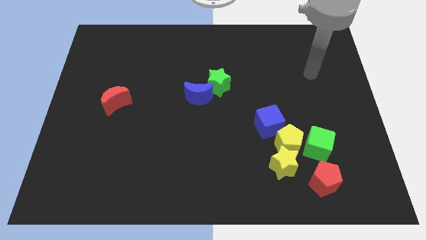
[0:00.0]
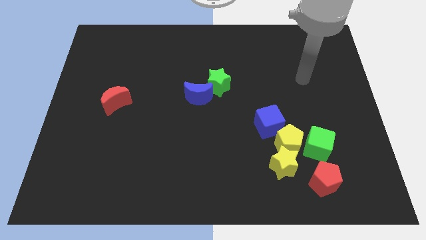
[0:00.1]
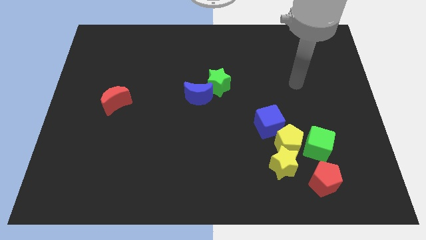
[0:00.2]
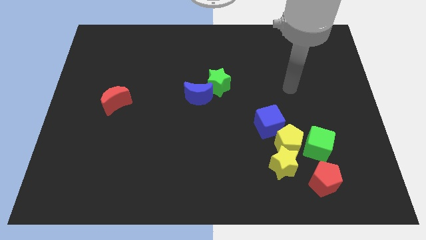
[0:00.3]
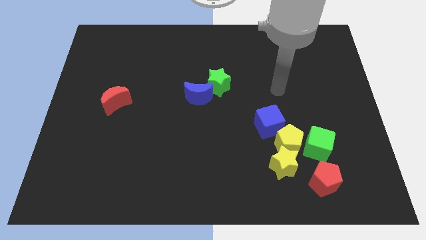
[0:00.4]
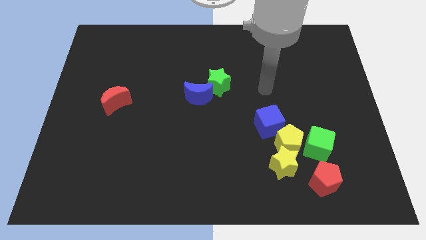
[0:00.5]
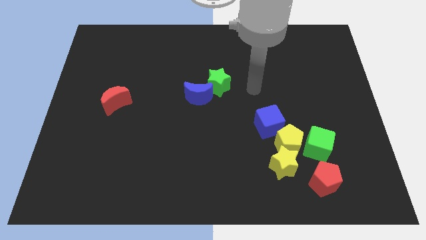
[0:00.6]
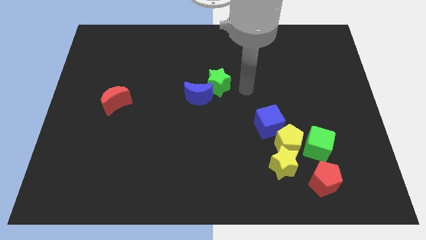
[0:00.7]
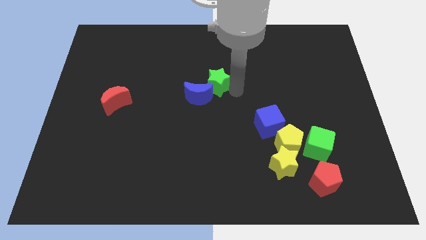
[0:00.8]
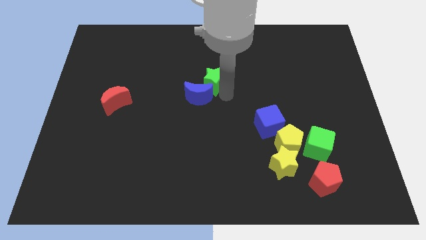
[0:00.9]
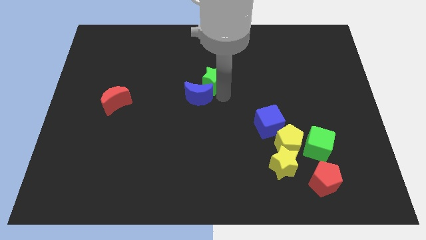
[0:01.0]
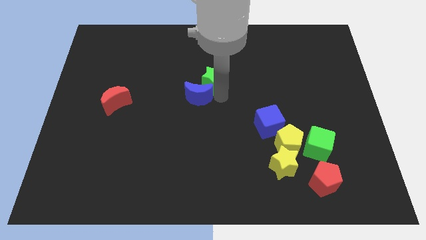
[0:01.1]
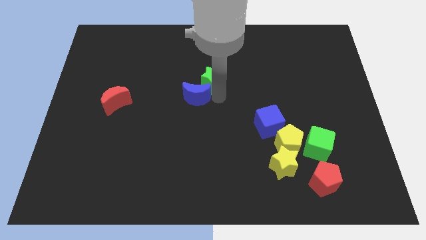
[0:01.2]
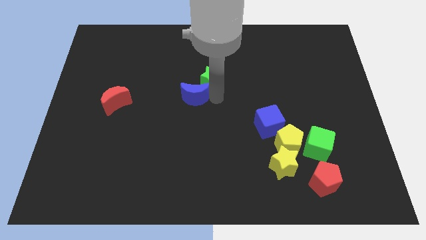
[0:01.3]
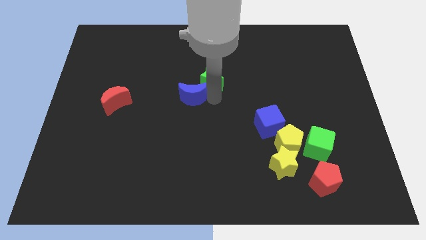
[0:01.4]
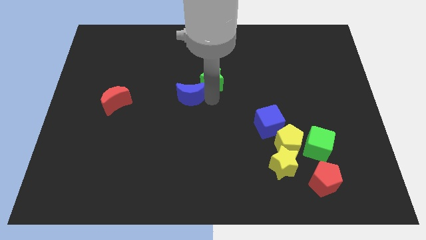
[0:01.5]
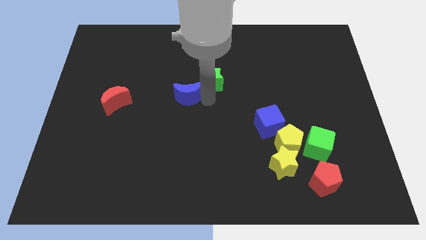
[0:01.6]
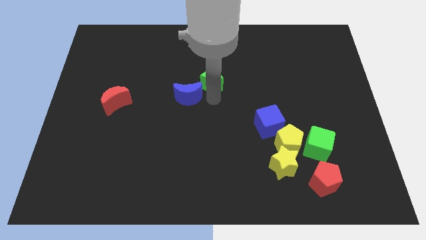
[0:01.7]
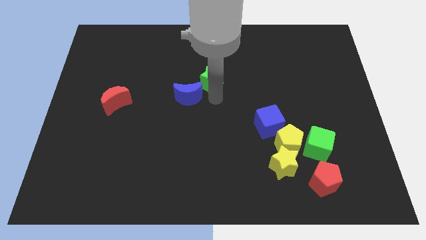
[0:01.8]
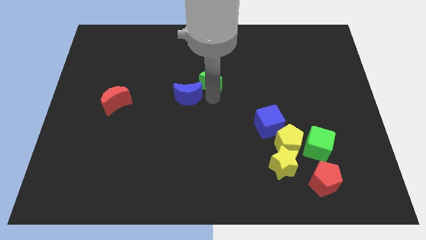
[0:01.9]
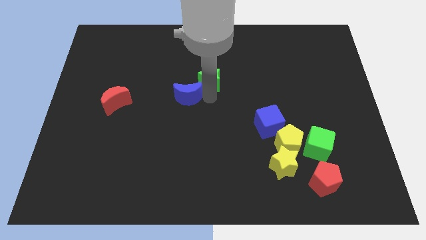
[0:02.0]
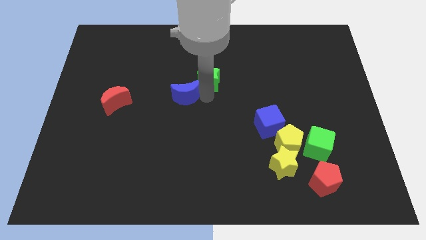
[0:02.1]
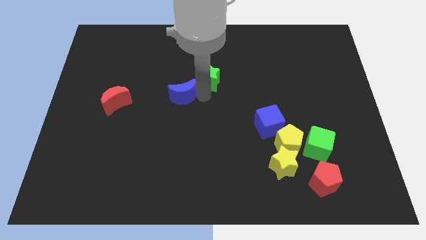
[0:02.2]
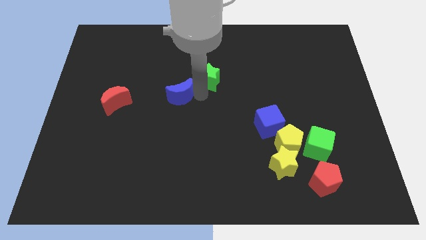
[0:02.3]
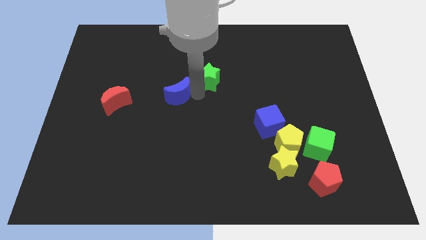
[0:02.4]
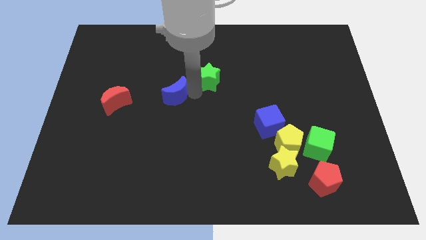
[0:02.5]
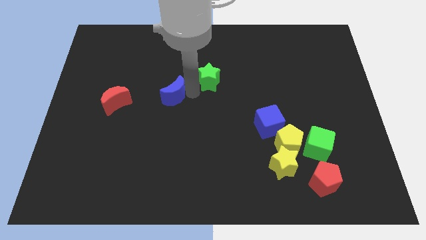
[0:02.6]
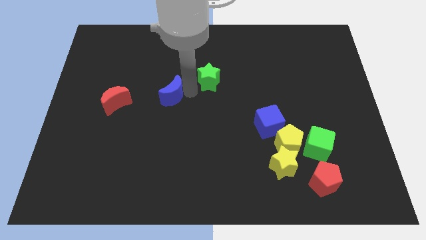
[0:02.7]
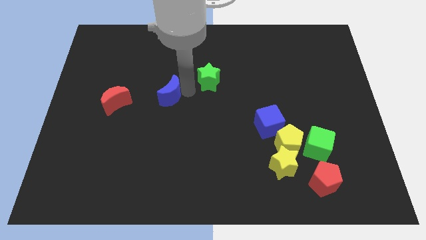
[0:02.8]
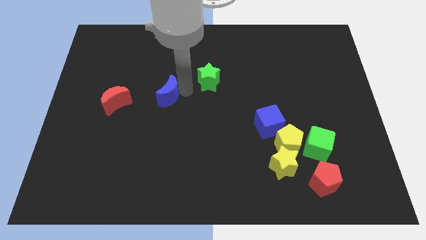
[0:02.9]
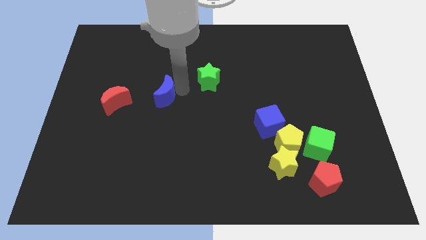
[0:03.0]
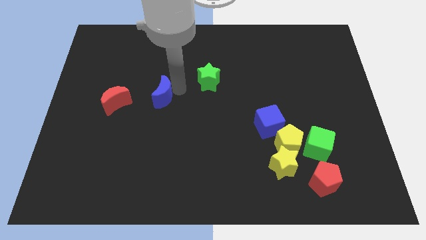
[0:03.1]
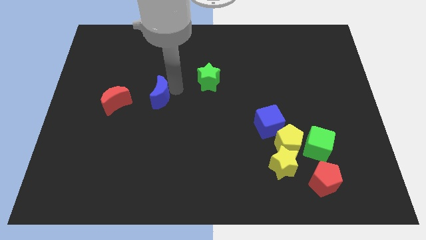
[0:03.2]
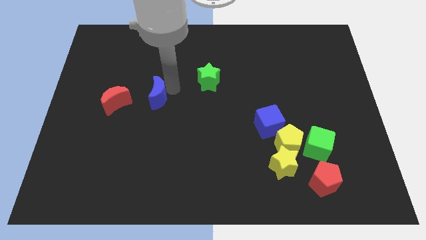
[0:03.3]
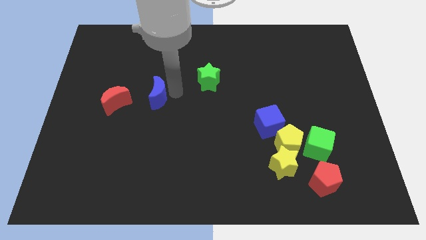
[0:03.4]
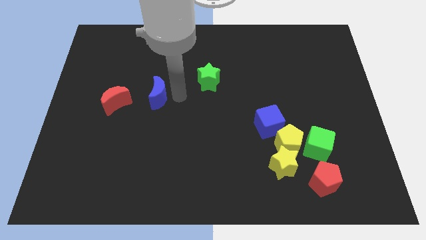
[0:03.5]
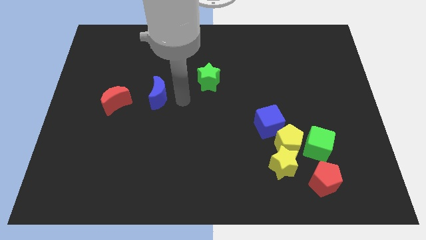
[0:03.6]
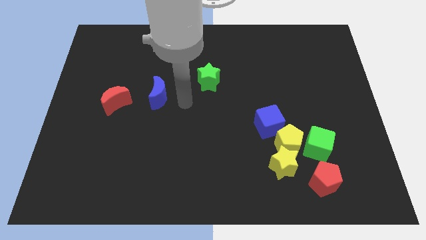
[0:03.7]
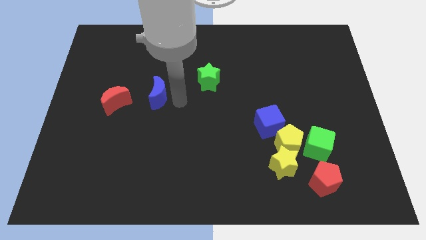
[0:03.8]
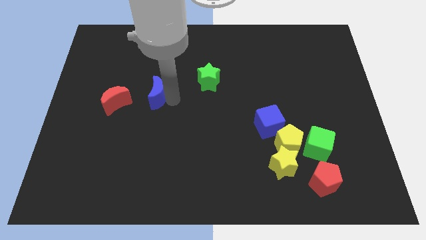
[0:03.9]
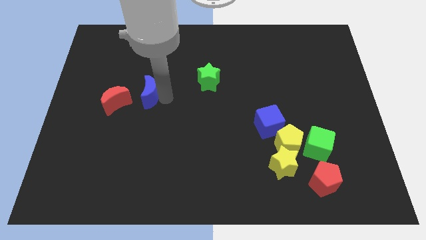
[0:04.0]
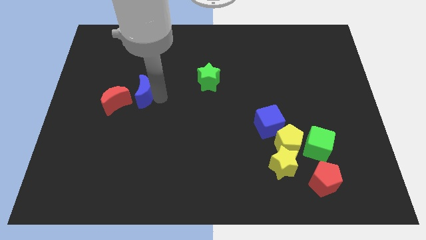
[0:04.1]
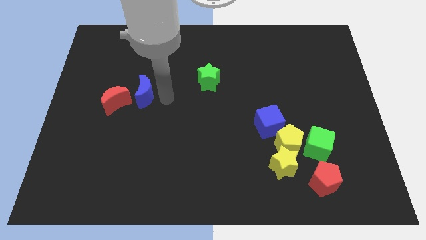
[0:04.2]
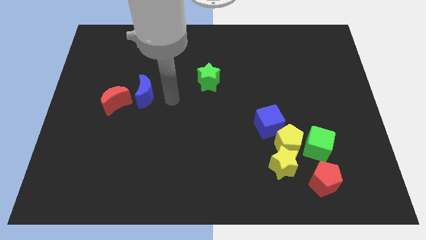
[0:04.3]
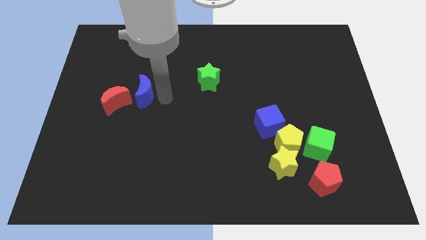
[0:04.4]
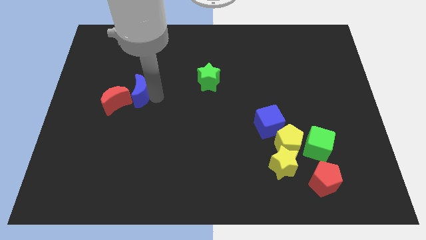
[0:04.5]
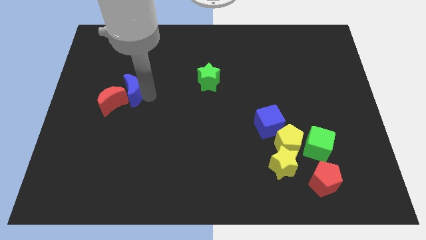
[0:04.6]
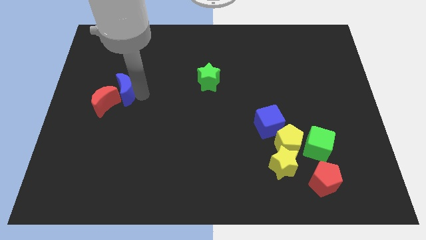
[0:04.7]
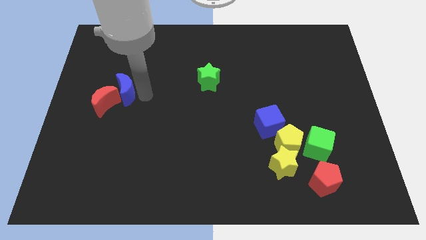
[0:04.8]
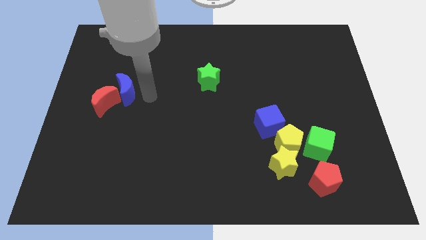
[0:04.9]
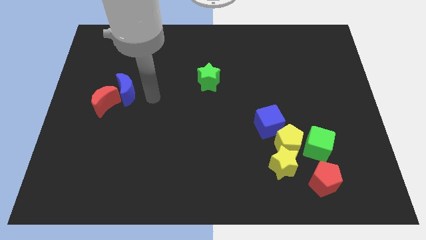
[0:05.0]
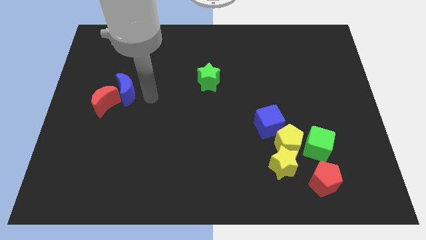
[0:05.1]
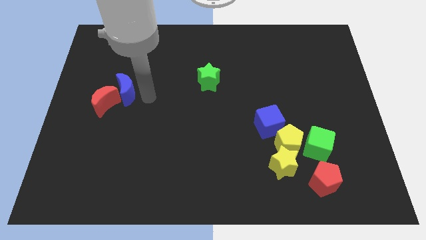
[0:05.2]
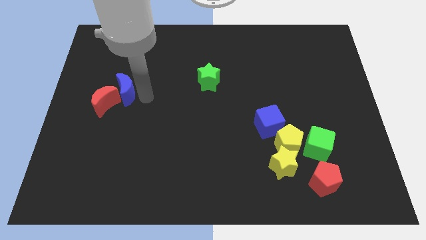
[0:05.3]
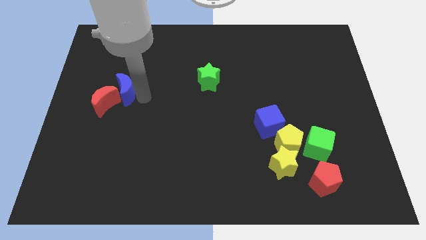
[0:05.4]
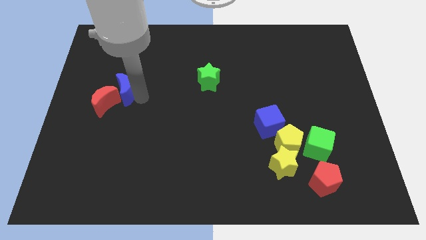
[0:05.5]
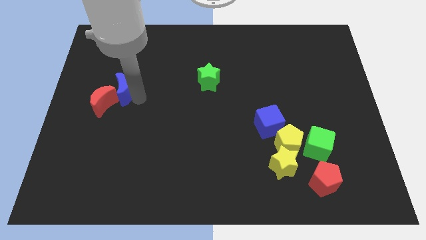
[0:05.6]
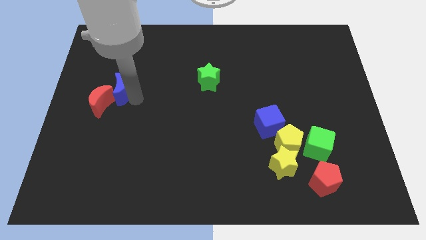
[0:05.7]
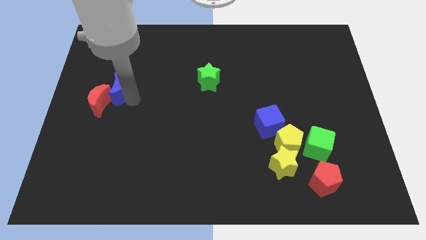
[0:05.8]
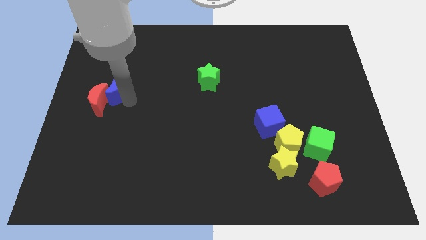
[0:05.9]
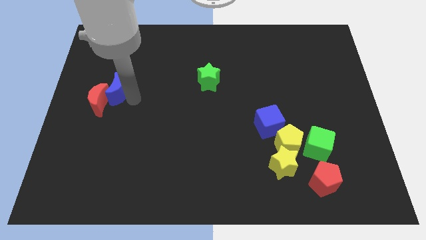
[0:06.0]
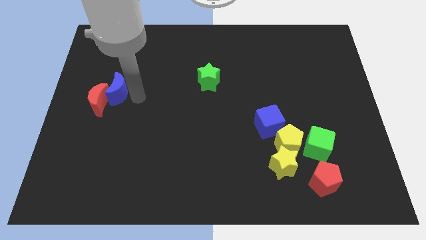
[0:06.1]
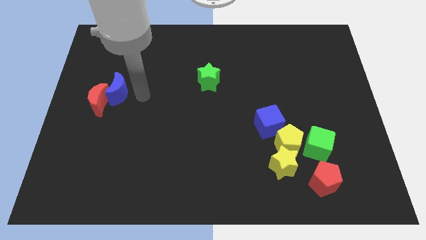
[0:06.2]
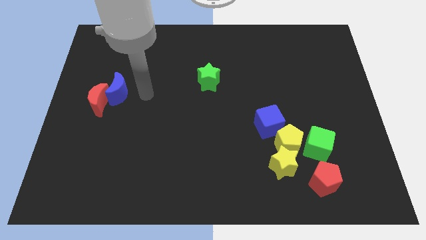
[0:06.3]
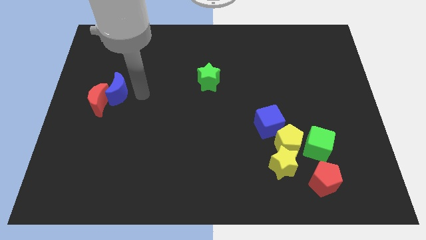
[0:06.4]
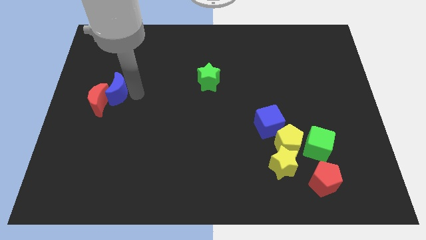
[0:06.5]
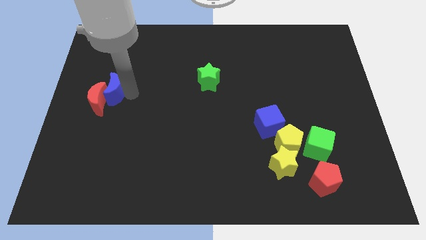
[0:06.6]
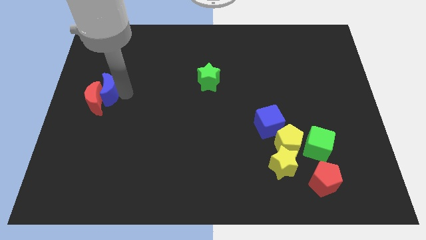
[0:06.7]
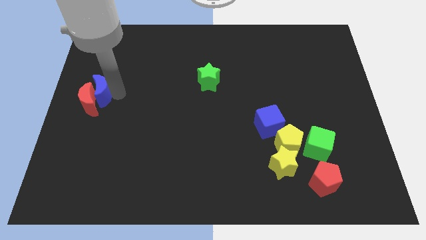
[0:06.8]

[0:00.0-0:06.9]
put the blue moon to the center left

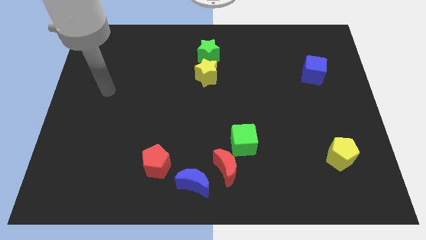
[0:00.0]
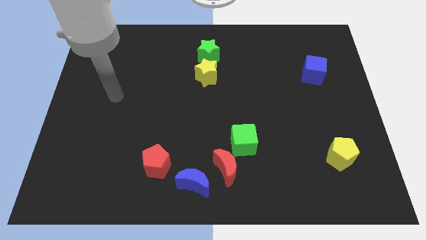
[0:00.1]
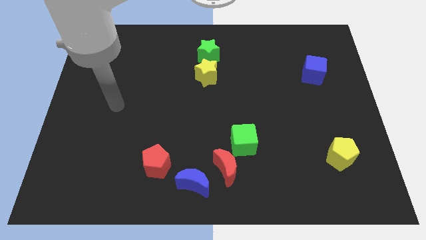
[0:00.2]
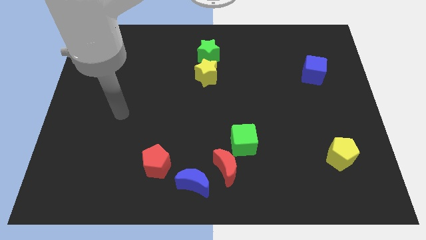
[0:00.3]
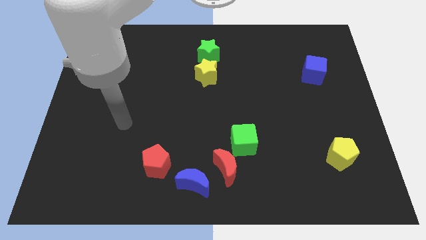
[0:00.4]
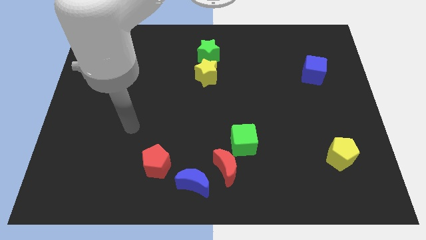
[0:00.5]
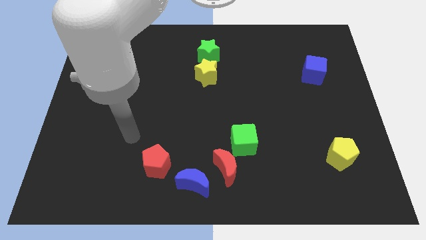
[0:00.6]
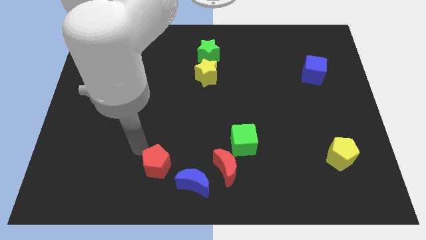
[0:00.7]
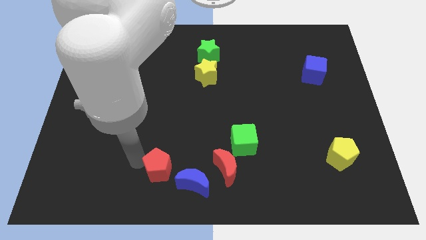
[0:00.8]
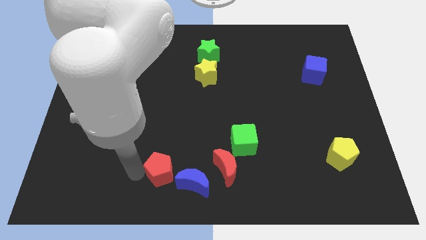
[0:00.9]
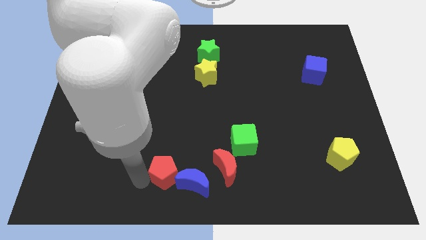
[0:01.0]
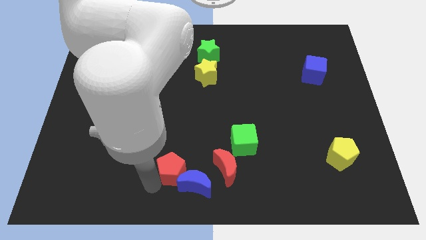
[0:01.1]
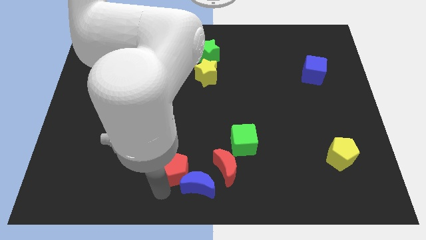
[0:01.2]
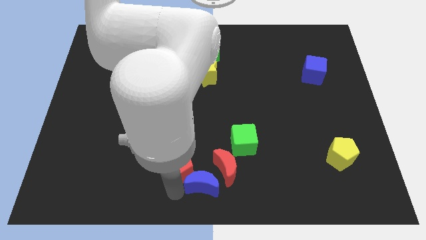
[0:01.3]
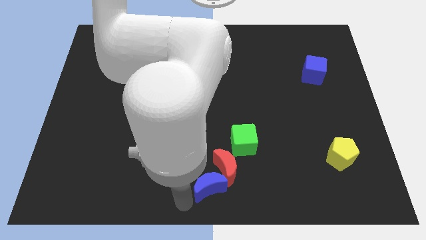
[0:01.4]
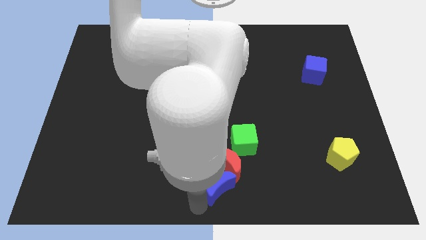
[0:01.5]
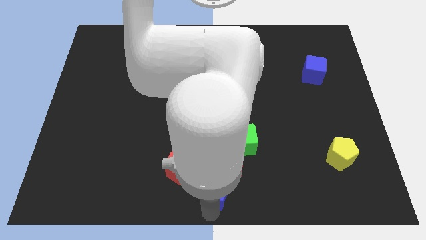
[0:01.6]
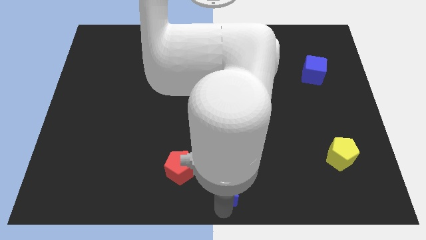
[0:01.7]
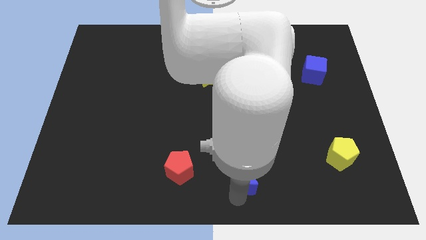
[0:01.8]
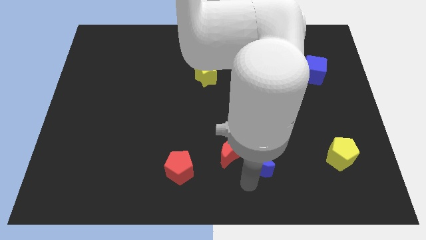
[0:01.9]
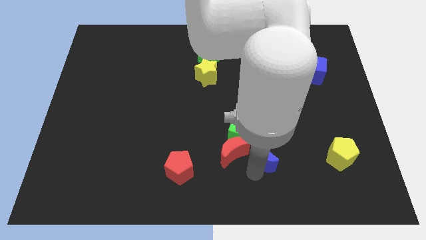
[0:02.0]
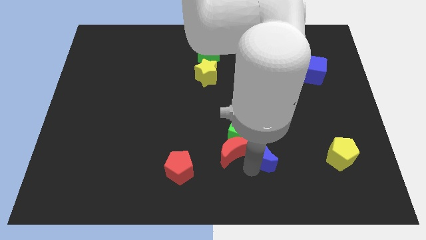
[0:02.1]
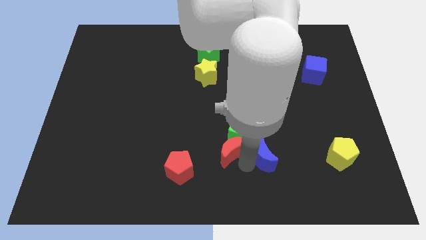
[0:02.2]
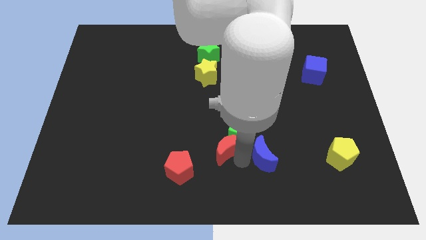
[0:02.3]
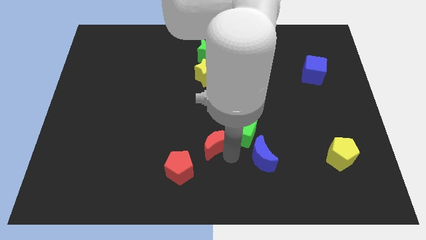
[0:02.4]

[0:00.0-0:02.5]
put the red moon to the middle
